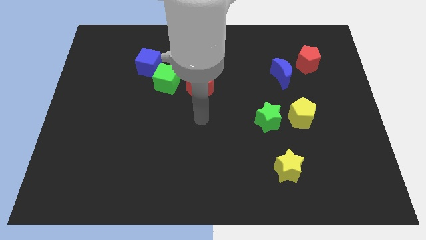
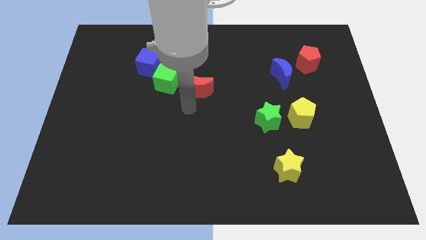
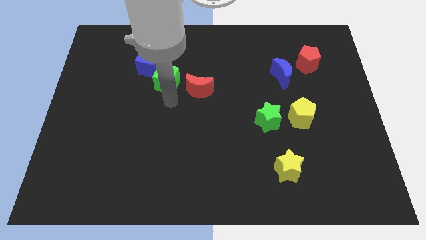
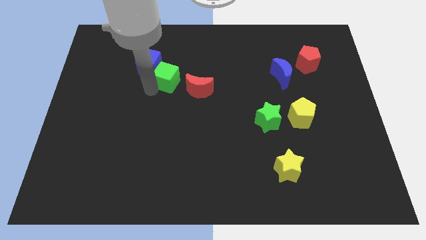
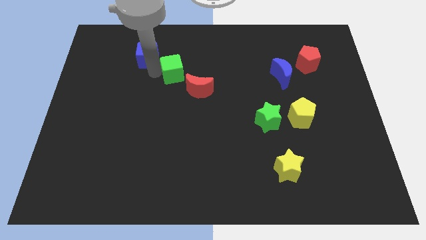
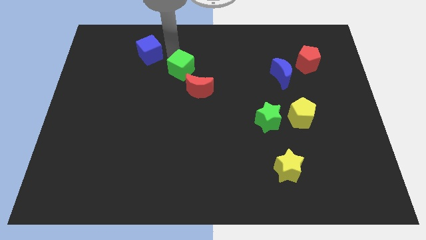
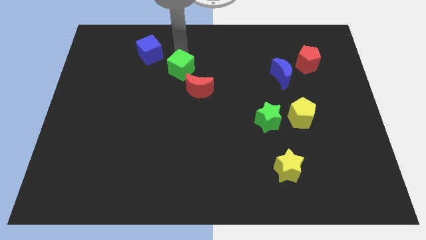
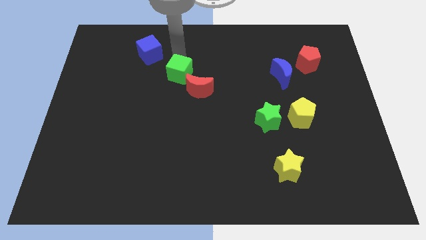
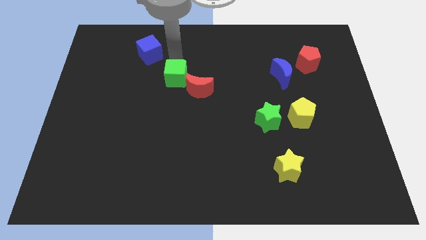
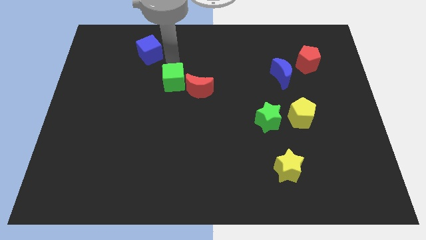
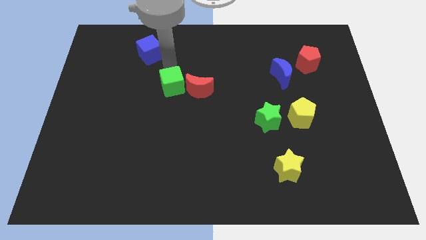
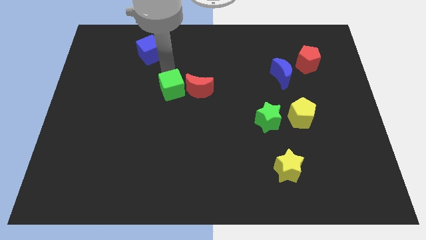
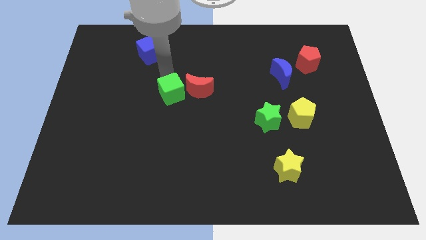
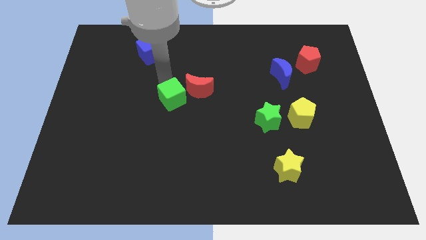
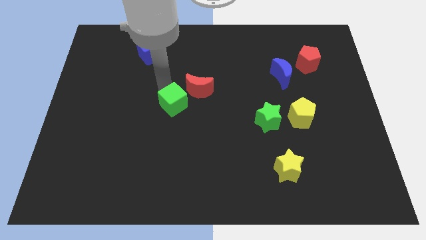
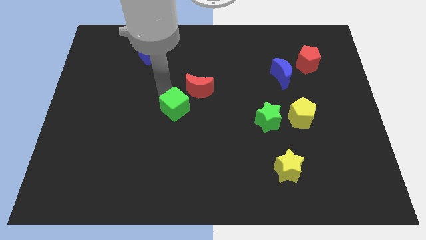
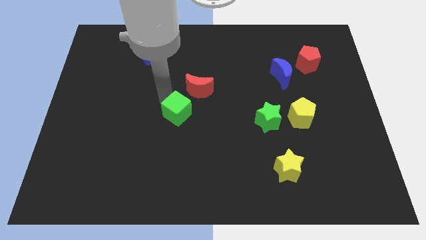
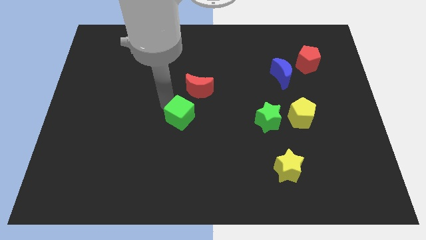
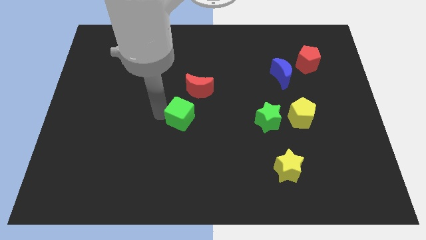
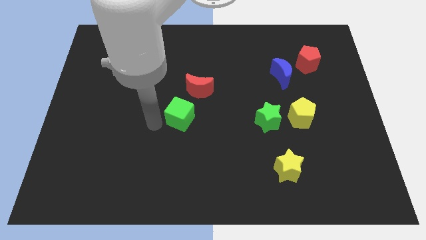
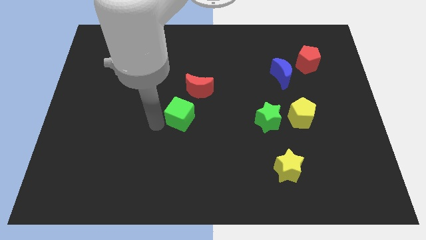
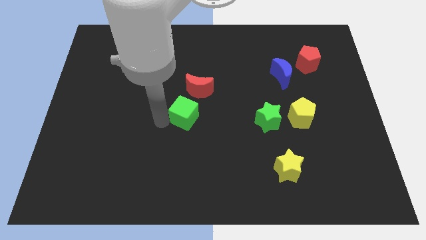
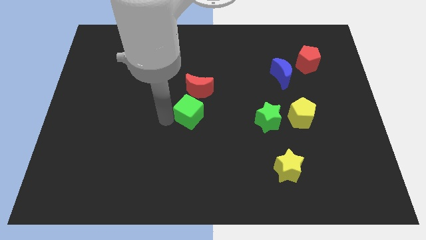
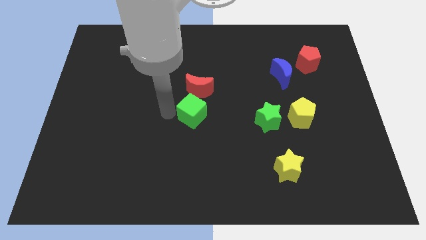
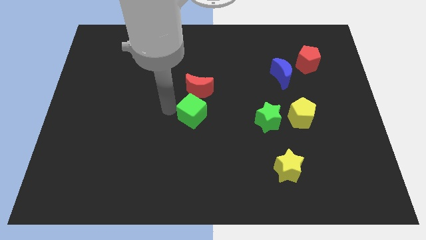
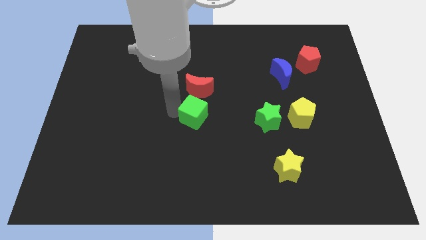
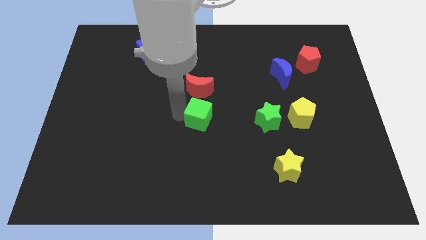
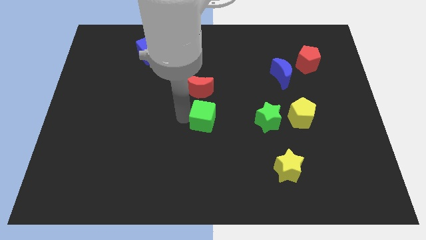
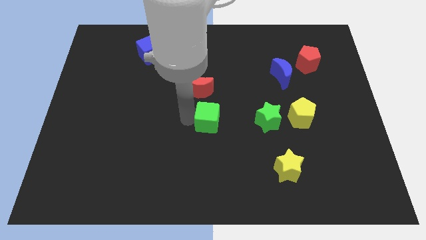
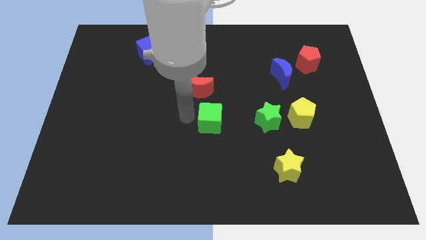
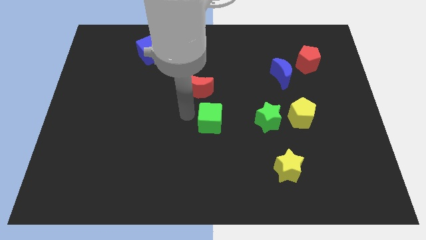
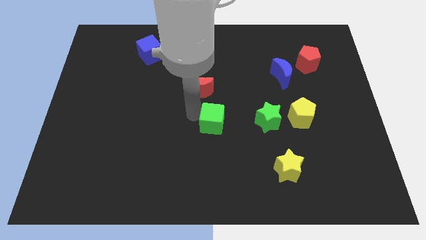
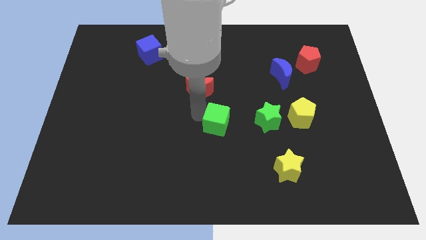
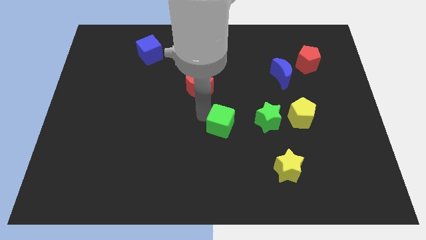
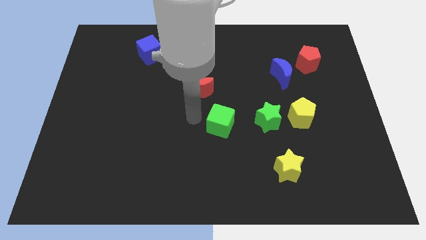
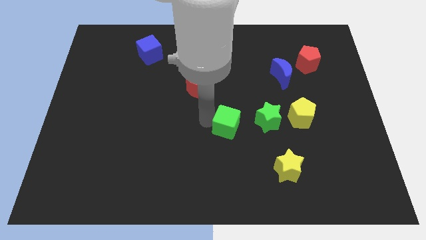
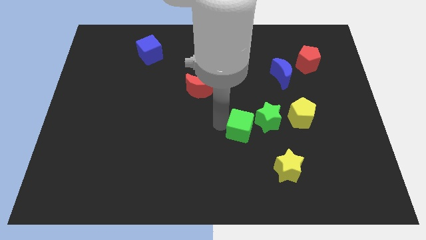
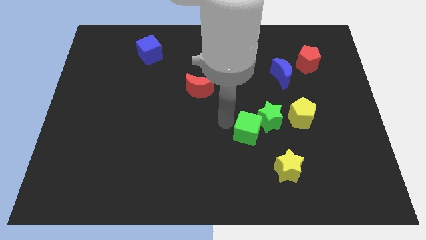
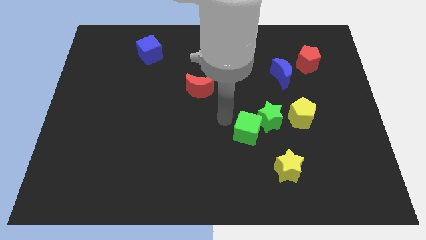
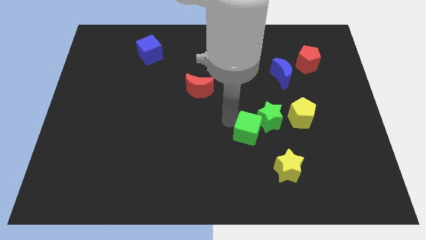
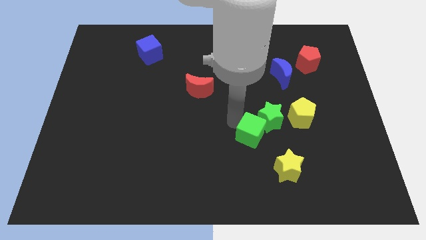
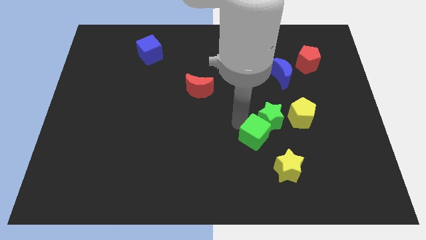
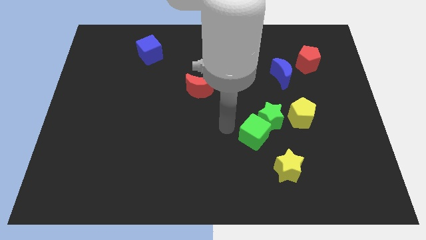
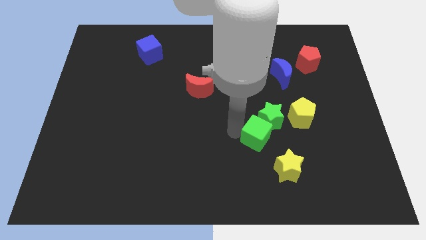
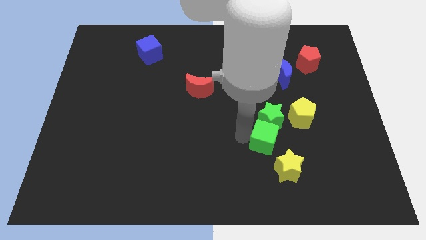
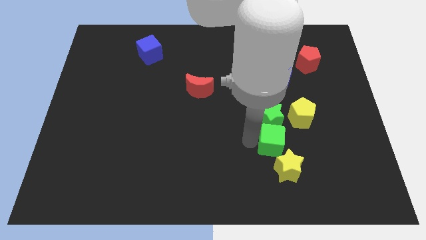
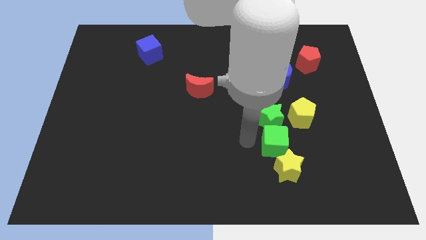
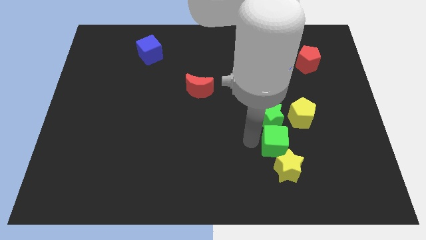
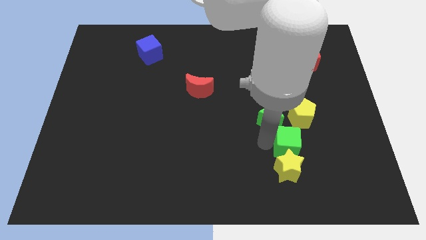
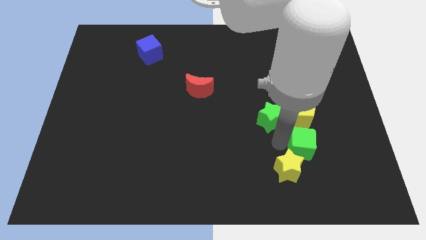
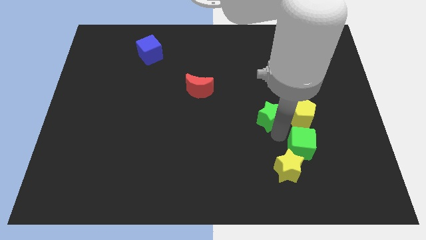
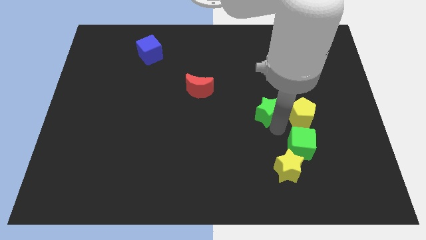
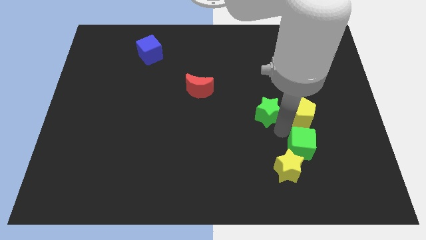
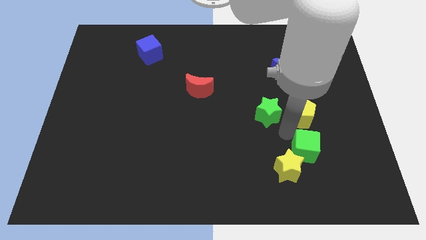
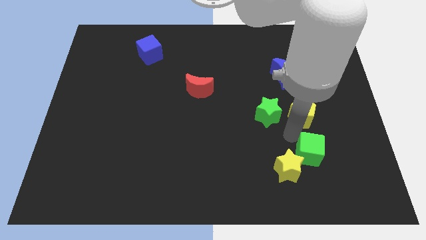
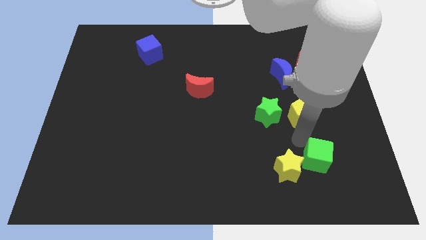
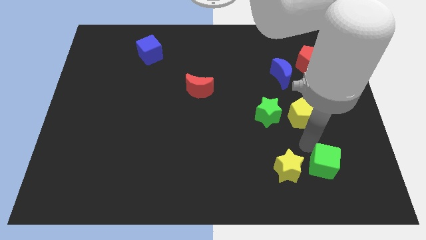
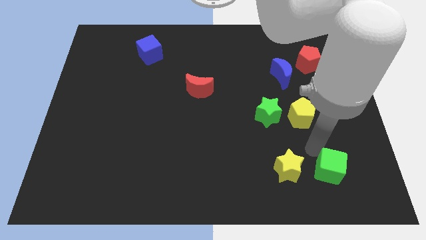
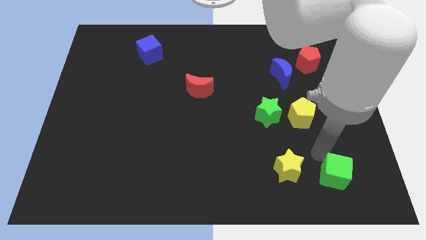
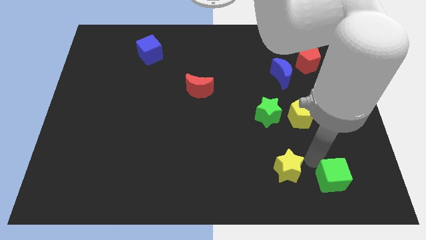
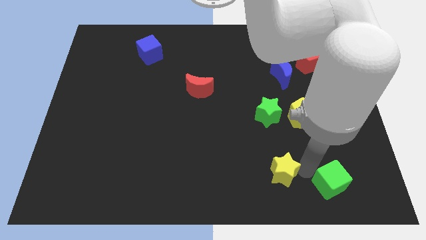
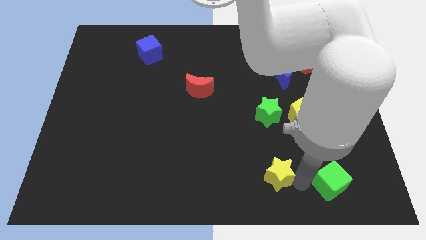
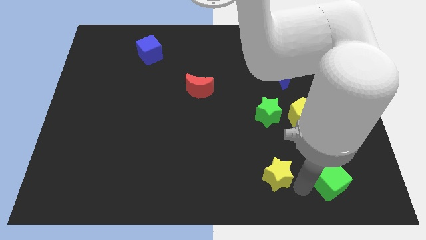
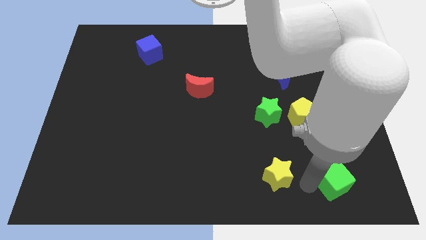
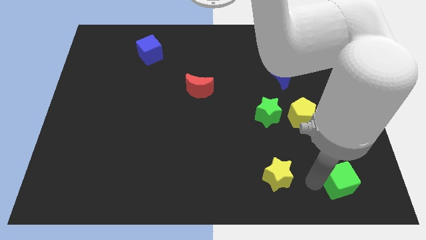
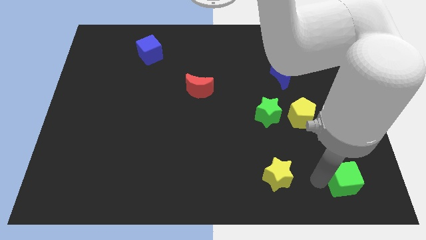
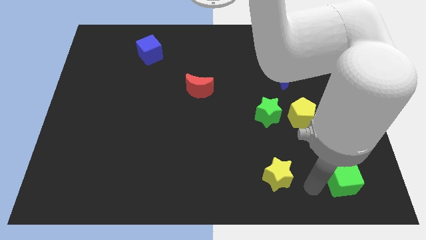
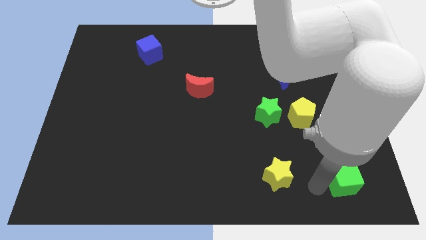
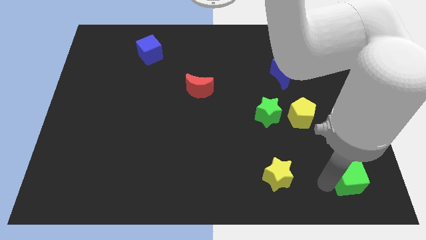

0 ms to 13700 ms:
put the green cube to the lower right corner
